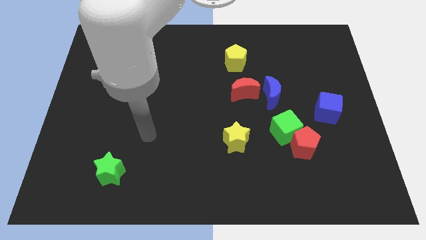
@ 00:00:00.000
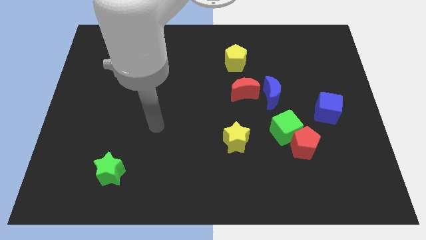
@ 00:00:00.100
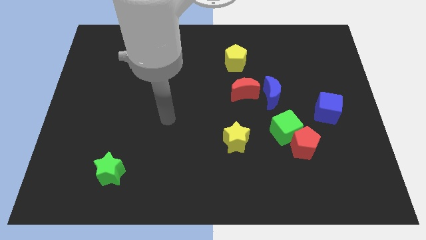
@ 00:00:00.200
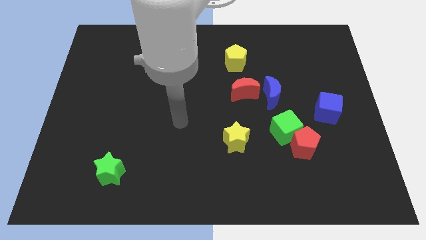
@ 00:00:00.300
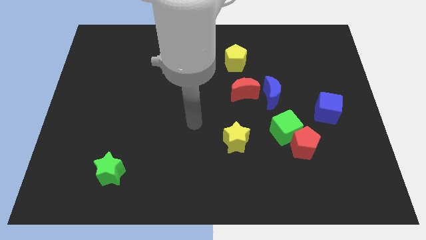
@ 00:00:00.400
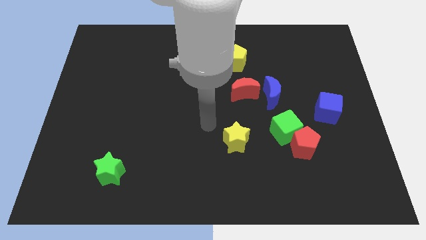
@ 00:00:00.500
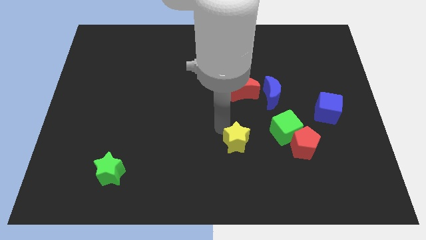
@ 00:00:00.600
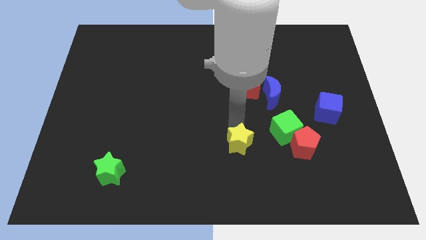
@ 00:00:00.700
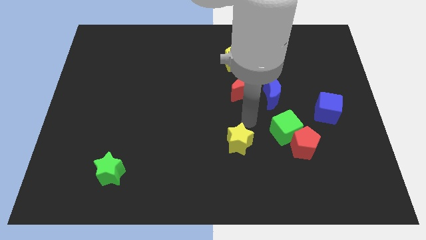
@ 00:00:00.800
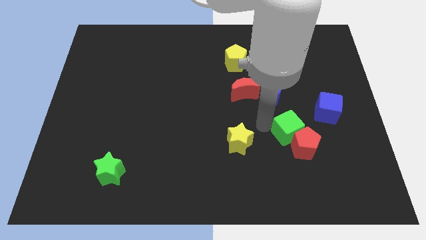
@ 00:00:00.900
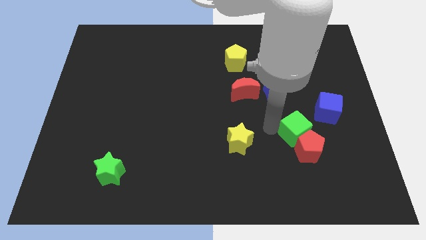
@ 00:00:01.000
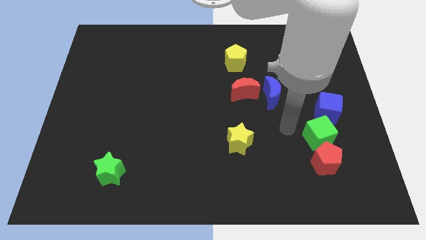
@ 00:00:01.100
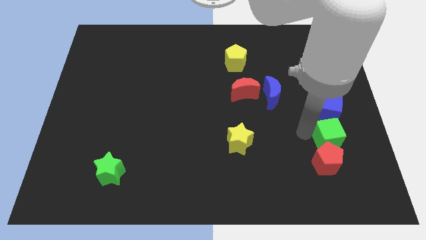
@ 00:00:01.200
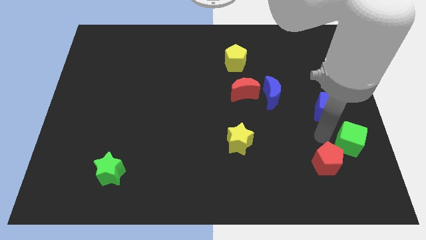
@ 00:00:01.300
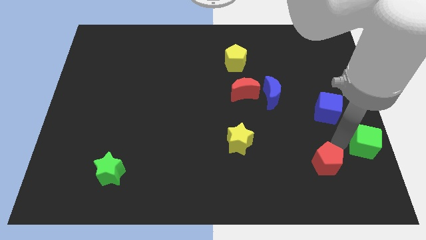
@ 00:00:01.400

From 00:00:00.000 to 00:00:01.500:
pull the red pentagon apart from the green cube

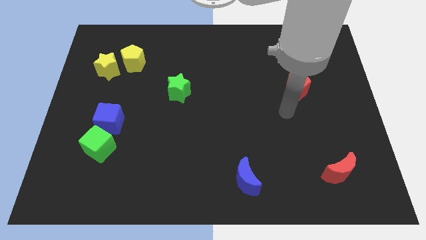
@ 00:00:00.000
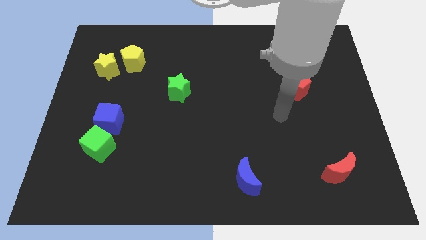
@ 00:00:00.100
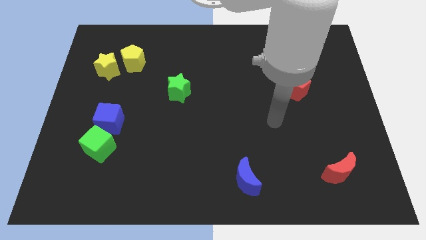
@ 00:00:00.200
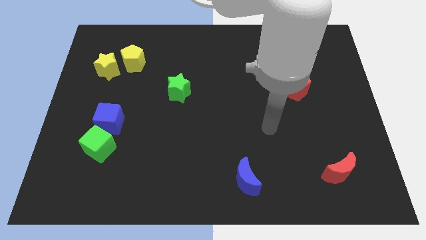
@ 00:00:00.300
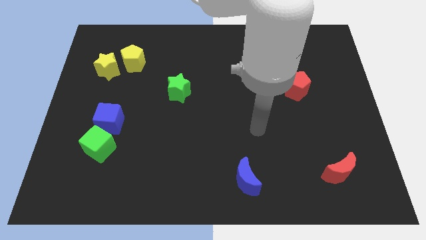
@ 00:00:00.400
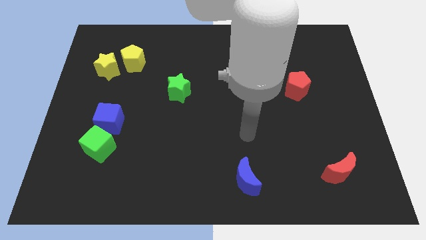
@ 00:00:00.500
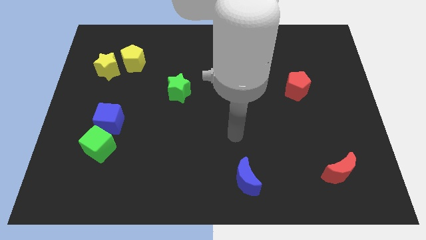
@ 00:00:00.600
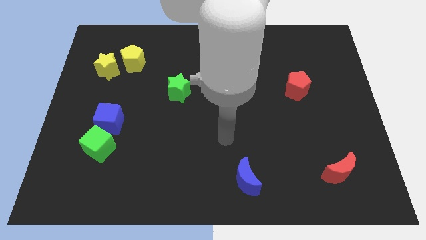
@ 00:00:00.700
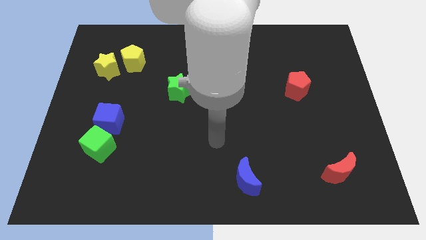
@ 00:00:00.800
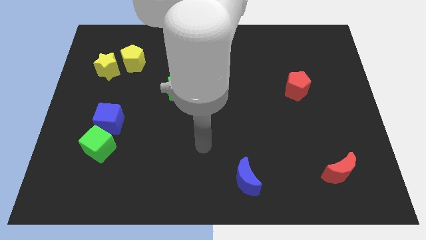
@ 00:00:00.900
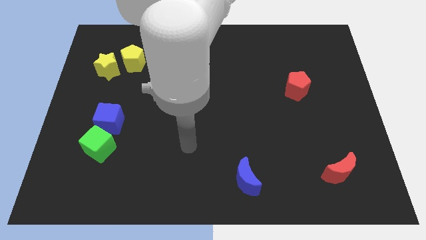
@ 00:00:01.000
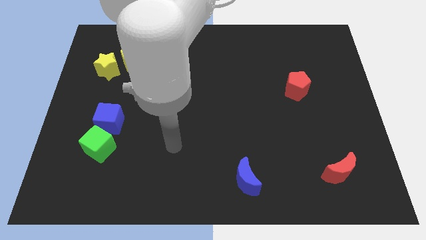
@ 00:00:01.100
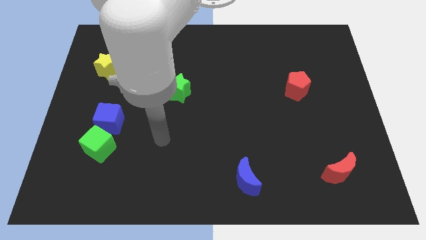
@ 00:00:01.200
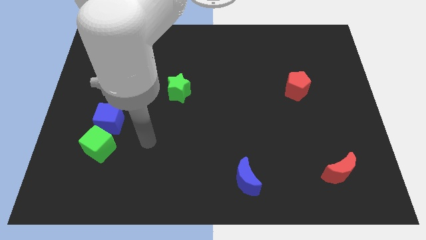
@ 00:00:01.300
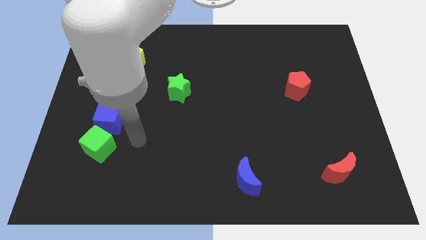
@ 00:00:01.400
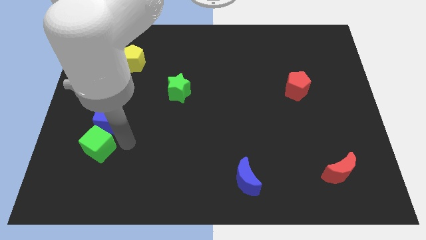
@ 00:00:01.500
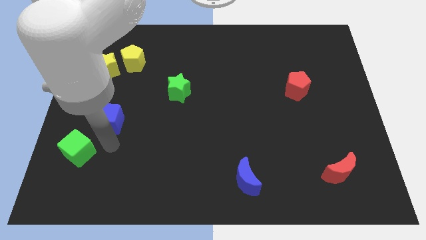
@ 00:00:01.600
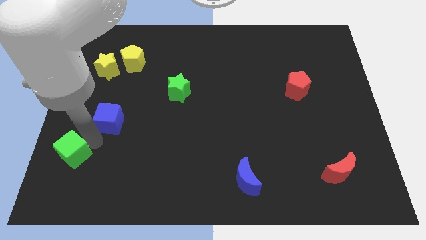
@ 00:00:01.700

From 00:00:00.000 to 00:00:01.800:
separate the blue cube from the green cube
